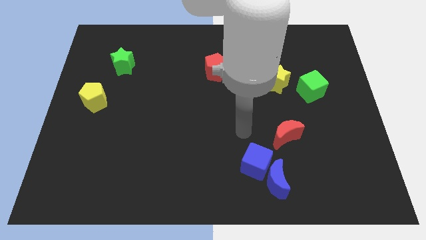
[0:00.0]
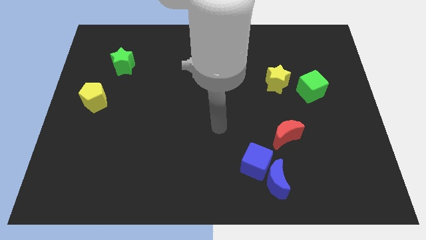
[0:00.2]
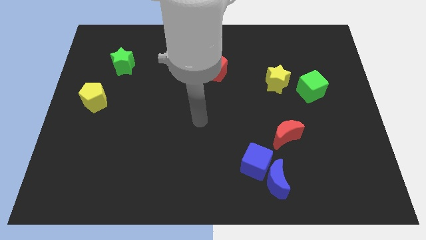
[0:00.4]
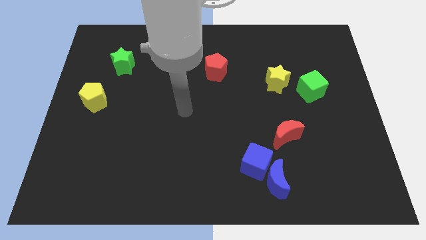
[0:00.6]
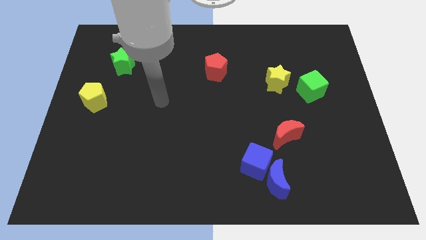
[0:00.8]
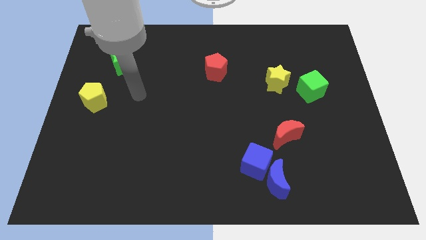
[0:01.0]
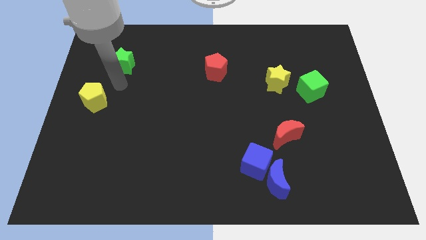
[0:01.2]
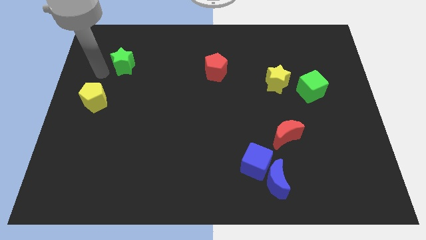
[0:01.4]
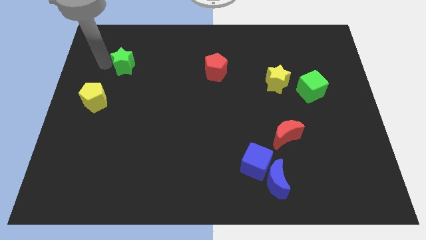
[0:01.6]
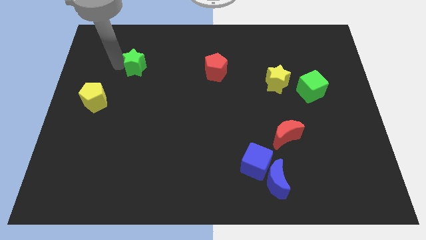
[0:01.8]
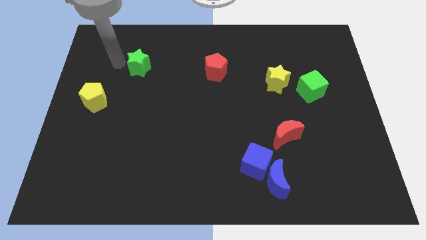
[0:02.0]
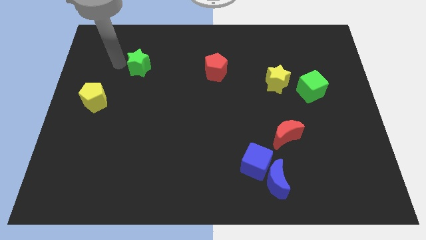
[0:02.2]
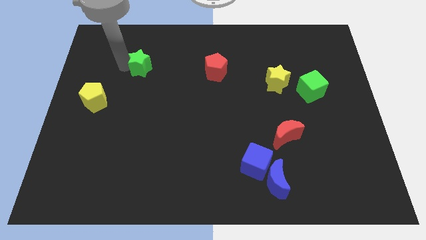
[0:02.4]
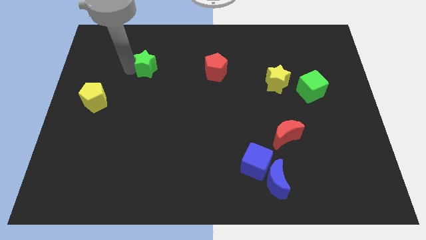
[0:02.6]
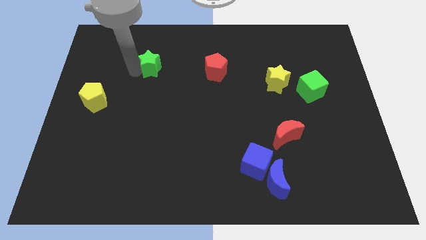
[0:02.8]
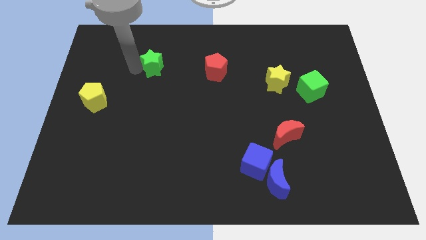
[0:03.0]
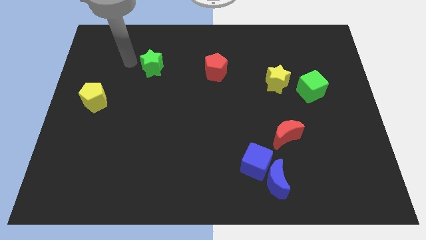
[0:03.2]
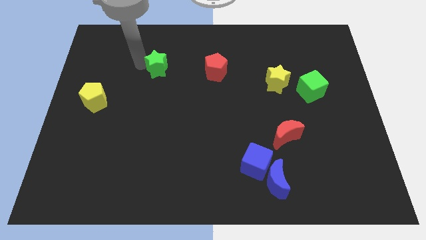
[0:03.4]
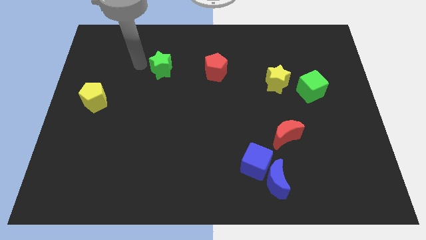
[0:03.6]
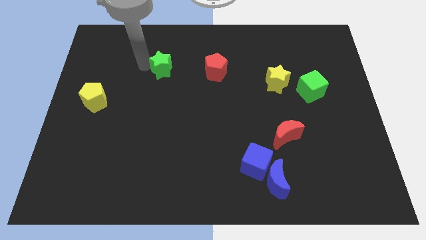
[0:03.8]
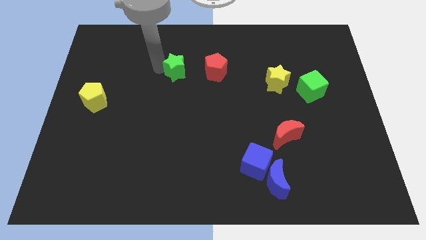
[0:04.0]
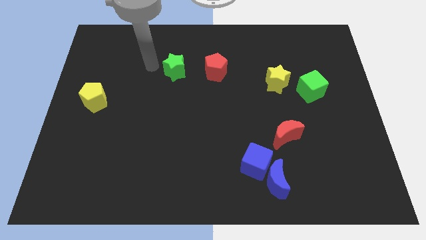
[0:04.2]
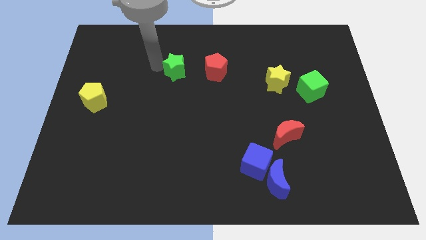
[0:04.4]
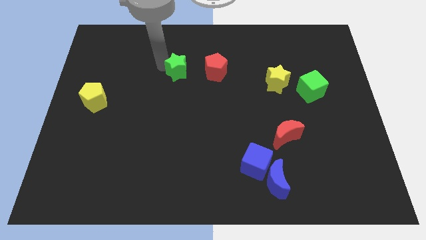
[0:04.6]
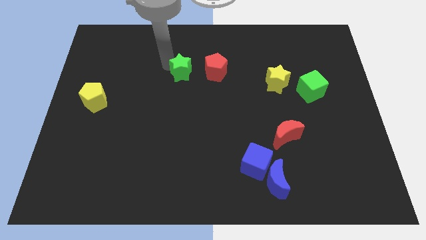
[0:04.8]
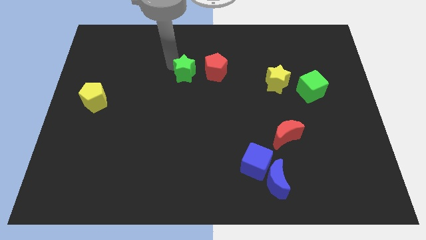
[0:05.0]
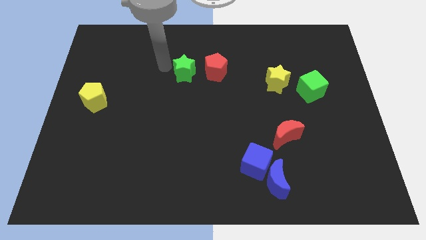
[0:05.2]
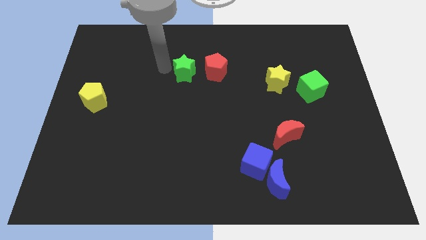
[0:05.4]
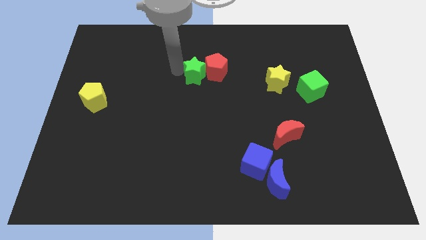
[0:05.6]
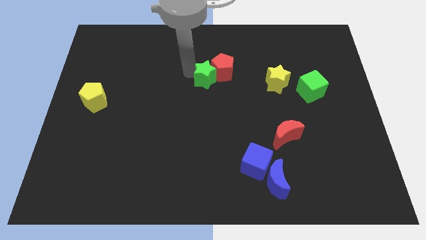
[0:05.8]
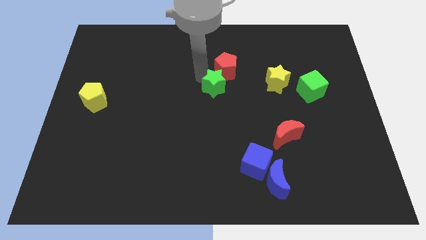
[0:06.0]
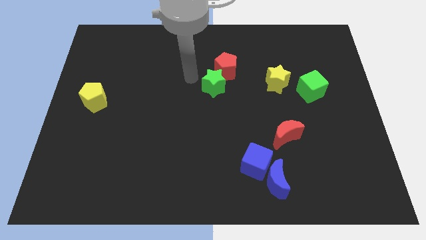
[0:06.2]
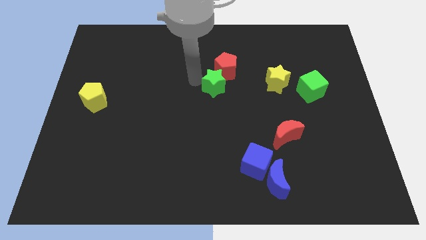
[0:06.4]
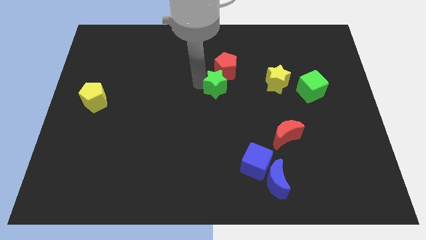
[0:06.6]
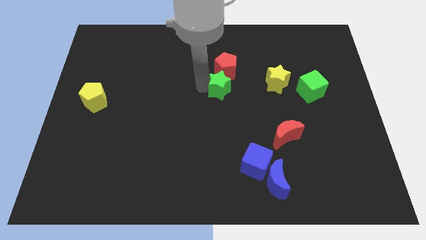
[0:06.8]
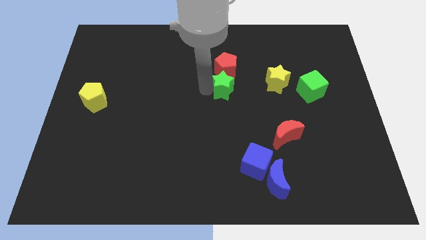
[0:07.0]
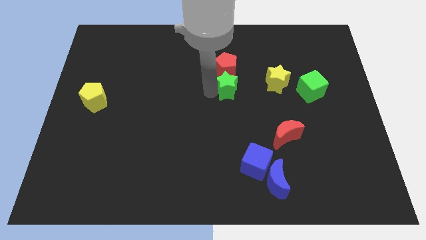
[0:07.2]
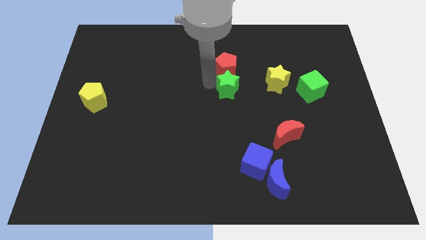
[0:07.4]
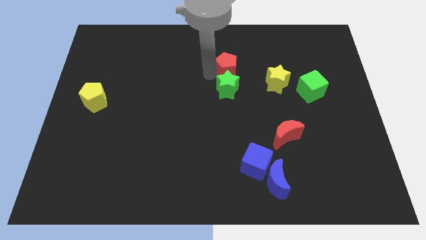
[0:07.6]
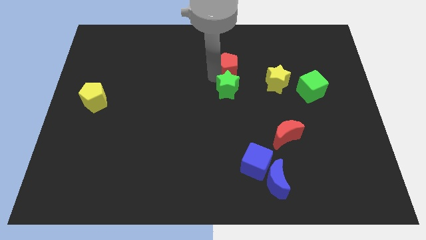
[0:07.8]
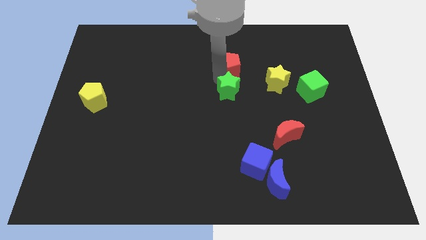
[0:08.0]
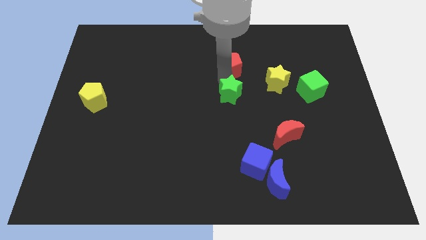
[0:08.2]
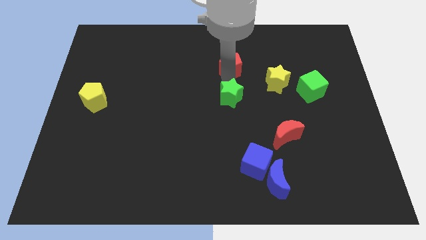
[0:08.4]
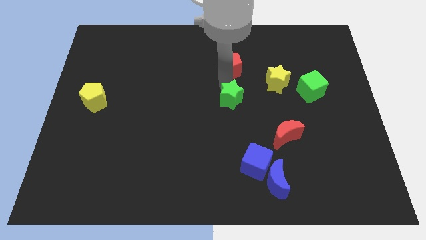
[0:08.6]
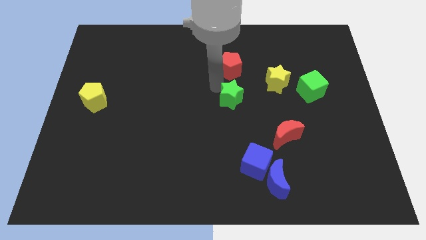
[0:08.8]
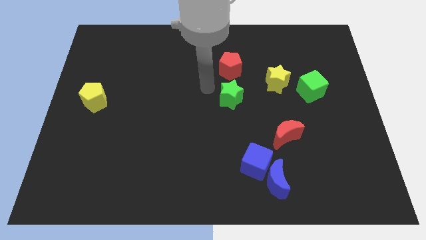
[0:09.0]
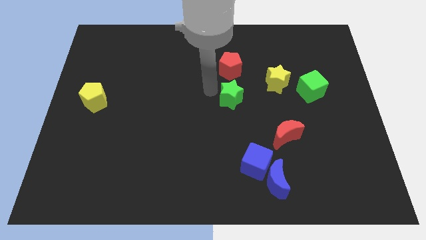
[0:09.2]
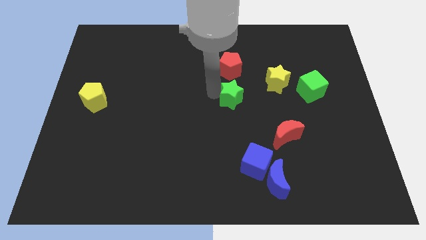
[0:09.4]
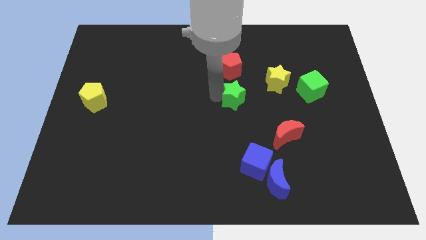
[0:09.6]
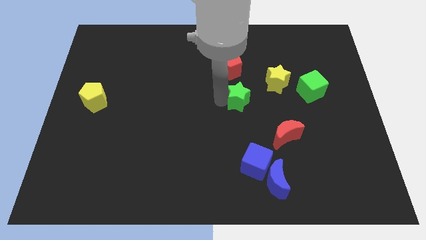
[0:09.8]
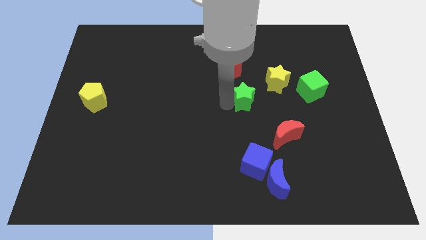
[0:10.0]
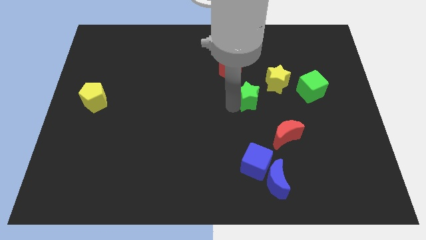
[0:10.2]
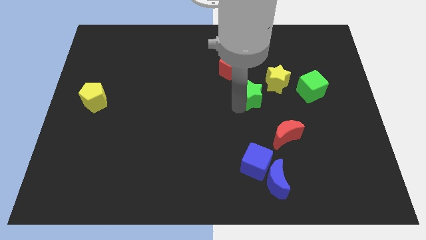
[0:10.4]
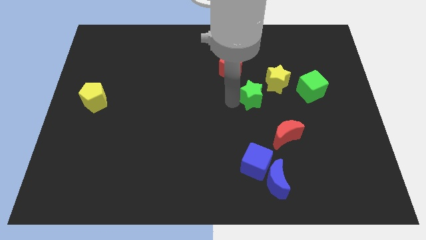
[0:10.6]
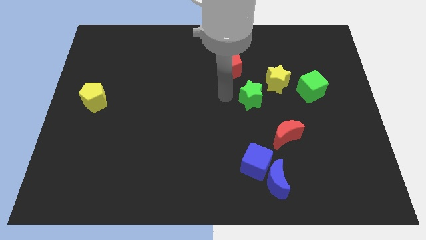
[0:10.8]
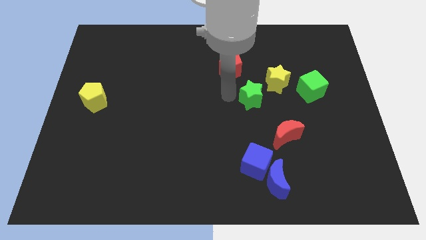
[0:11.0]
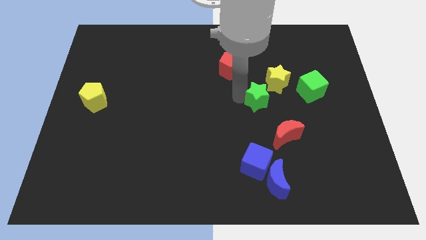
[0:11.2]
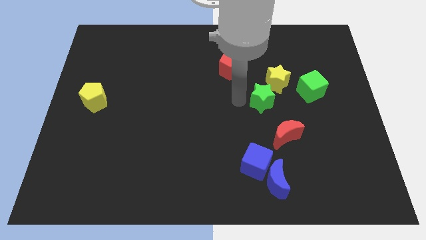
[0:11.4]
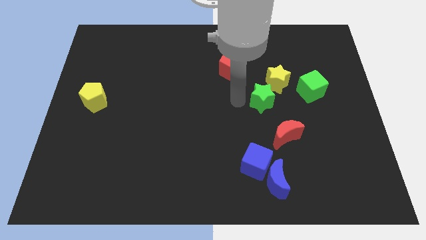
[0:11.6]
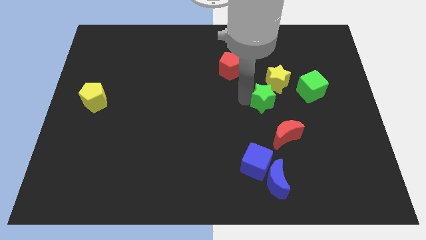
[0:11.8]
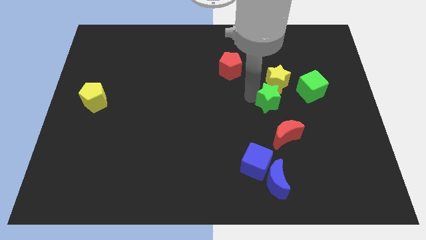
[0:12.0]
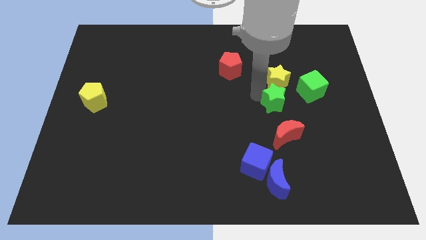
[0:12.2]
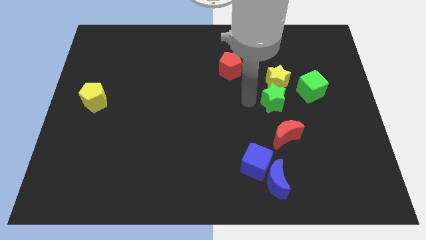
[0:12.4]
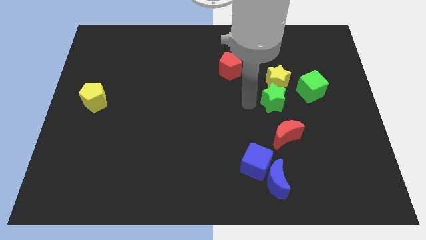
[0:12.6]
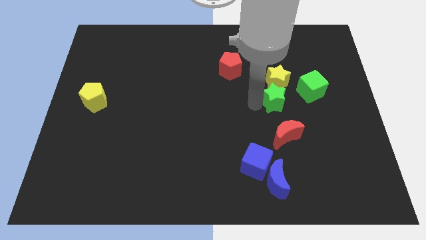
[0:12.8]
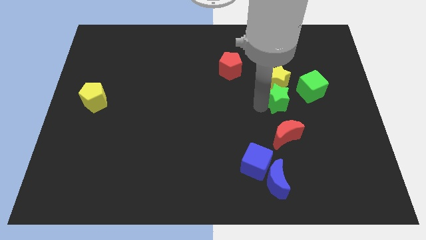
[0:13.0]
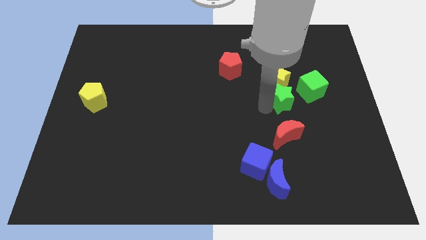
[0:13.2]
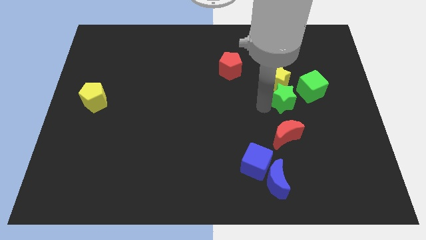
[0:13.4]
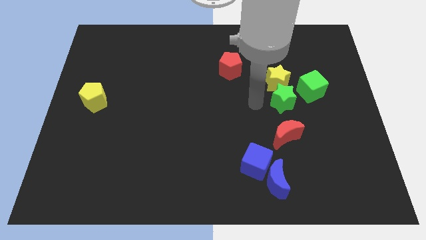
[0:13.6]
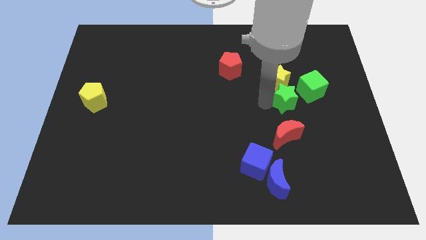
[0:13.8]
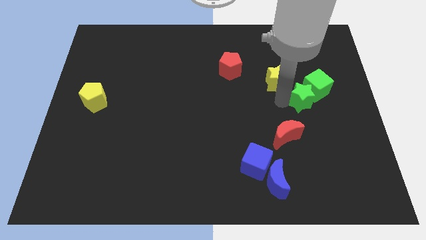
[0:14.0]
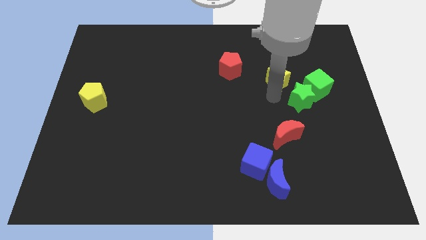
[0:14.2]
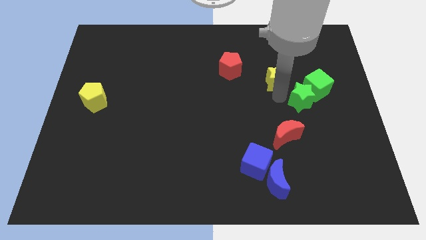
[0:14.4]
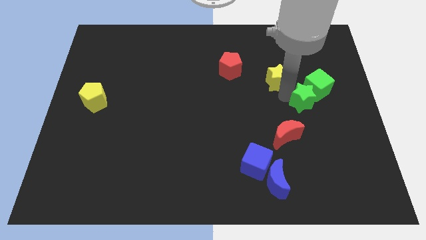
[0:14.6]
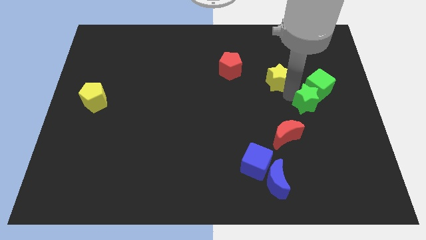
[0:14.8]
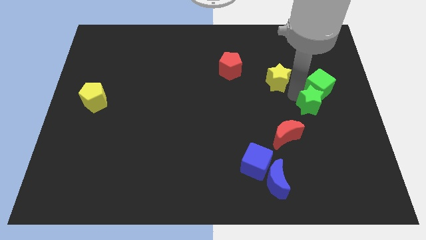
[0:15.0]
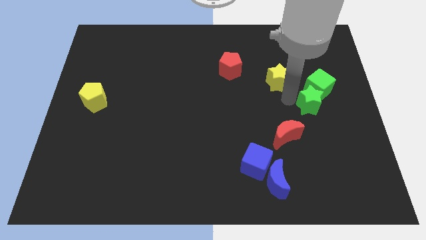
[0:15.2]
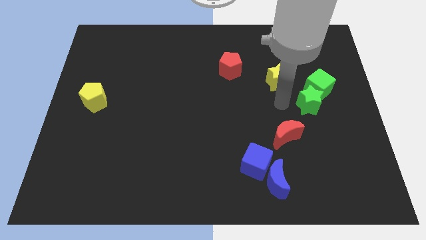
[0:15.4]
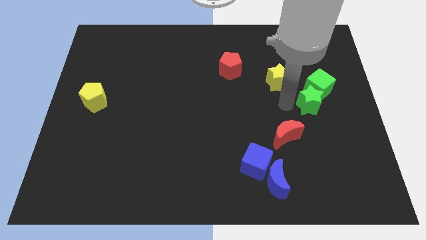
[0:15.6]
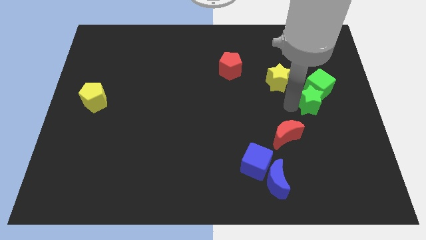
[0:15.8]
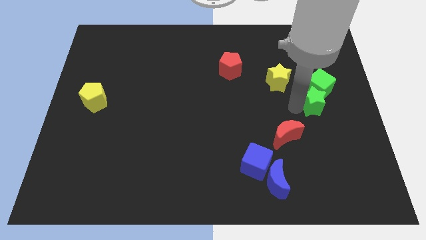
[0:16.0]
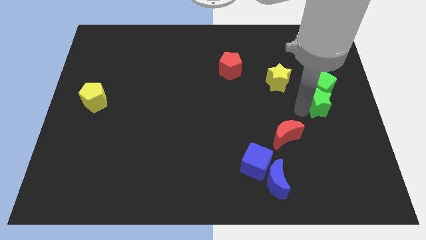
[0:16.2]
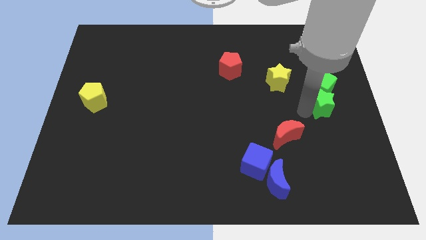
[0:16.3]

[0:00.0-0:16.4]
put the green star to the right side
